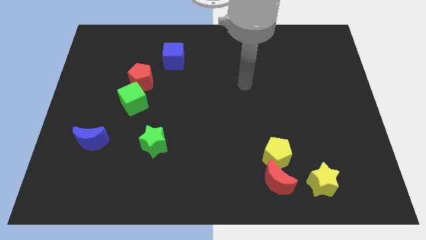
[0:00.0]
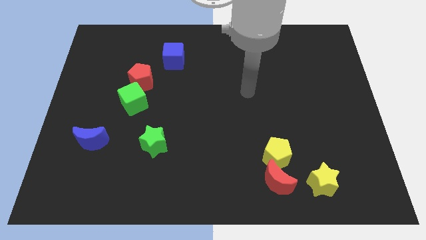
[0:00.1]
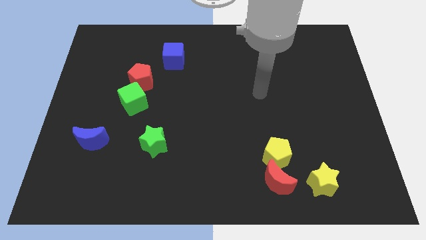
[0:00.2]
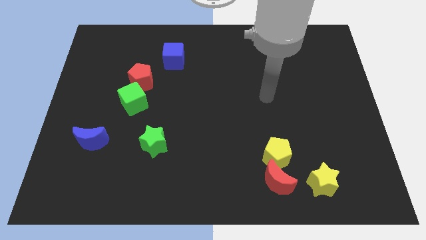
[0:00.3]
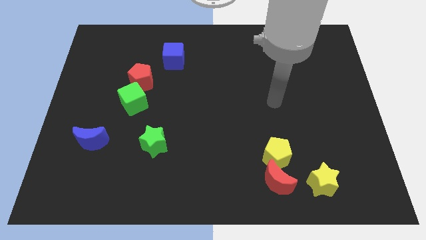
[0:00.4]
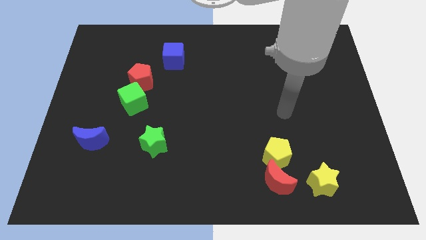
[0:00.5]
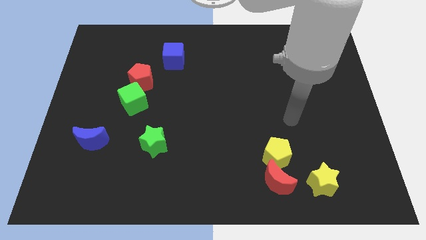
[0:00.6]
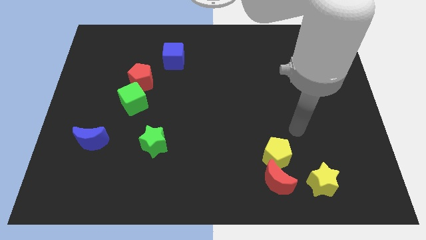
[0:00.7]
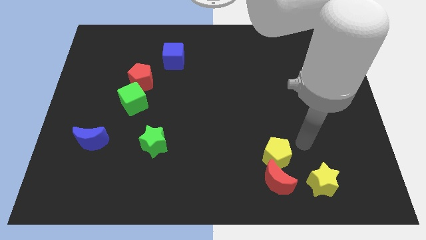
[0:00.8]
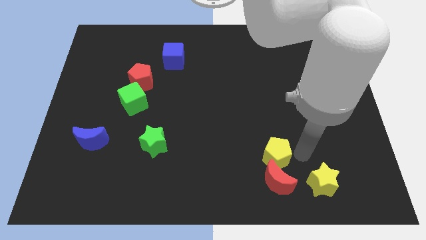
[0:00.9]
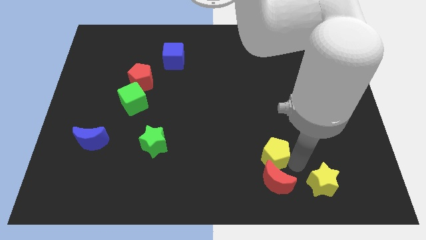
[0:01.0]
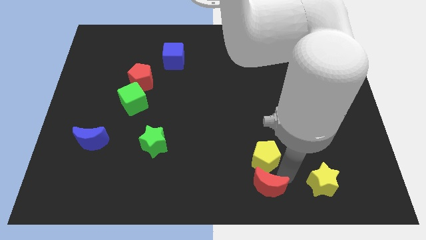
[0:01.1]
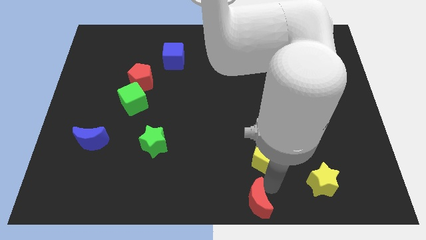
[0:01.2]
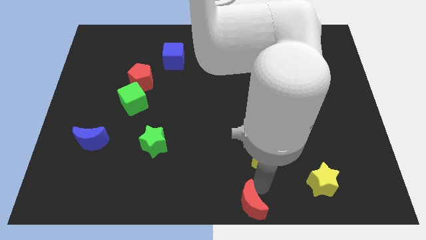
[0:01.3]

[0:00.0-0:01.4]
pull the yellow pentagon apart from the red moon

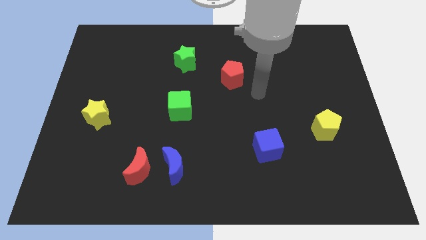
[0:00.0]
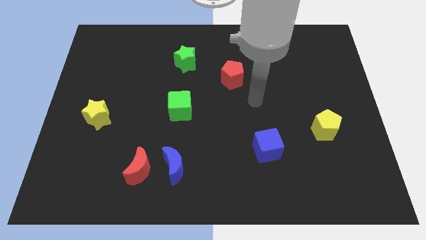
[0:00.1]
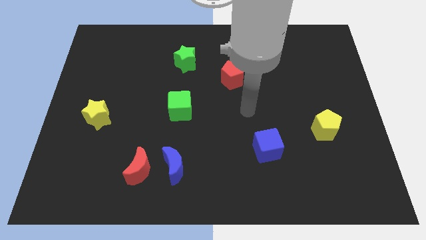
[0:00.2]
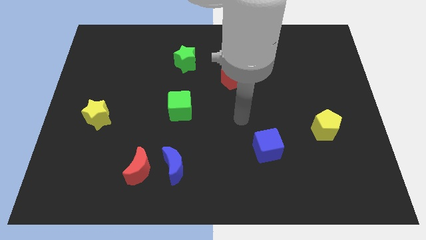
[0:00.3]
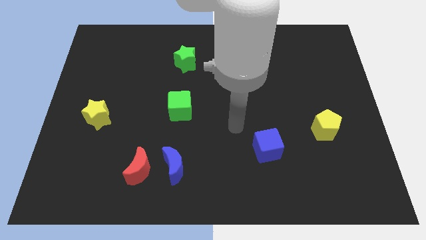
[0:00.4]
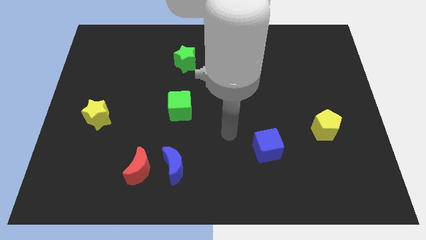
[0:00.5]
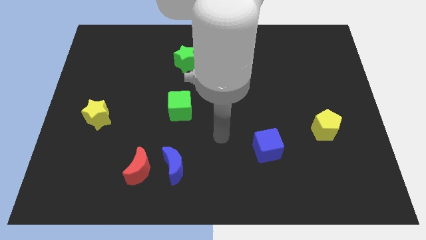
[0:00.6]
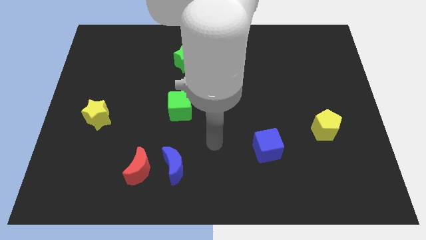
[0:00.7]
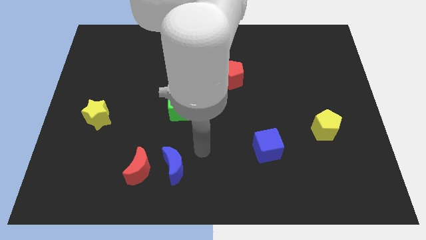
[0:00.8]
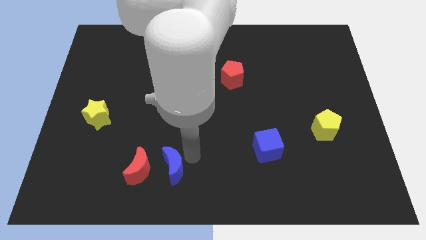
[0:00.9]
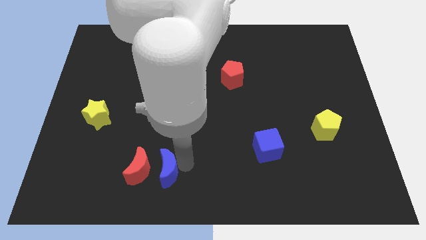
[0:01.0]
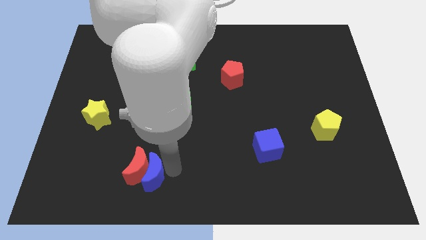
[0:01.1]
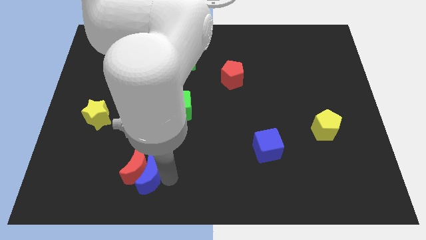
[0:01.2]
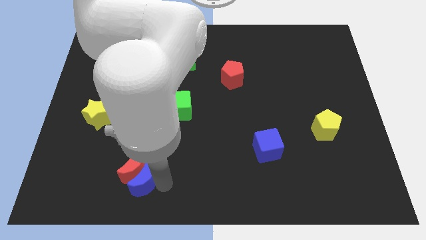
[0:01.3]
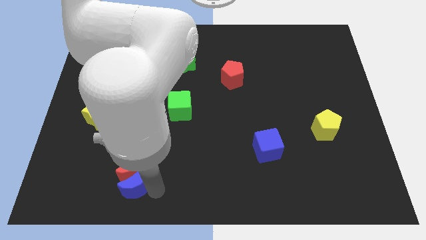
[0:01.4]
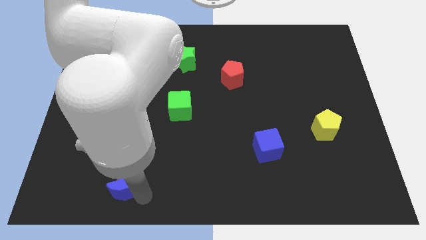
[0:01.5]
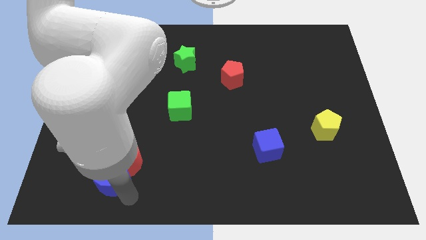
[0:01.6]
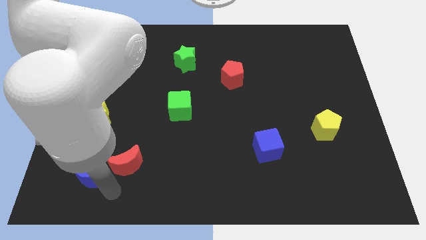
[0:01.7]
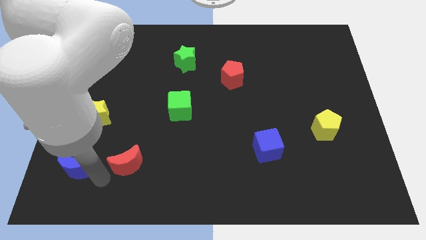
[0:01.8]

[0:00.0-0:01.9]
pull the red moon apart from the blue moon

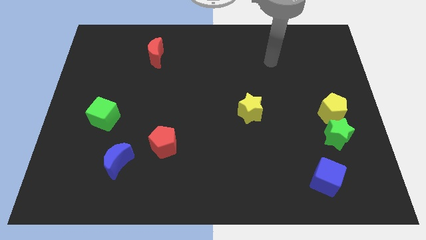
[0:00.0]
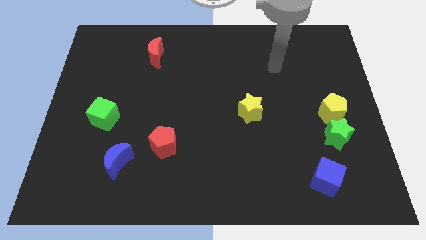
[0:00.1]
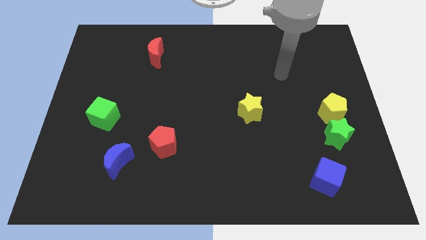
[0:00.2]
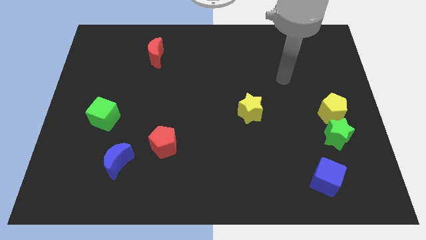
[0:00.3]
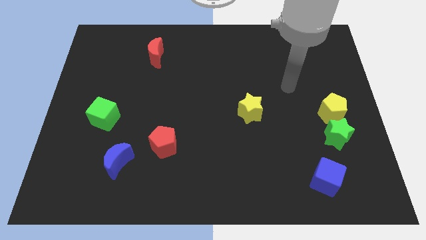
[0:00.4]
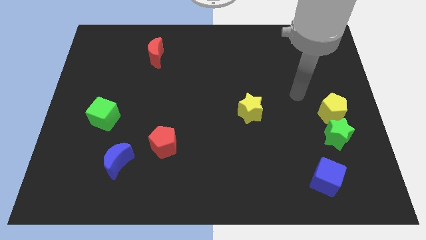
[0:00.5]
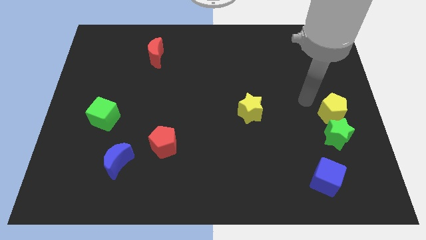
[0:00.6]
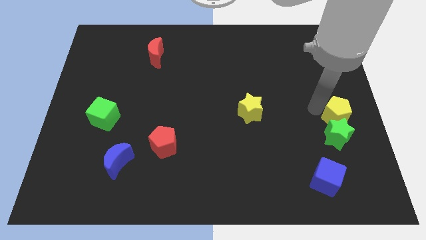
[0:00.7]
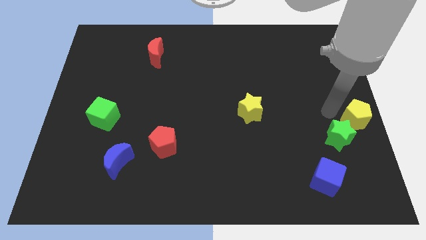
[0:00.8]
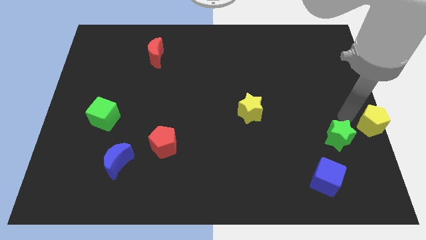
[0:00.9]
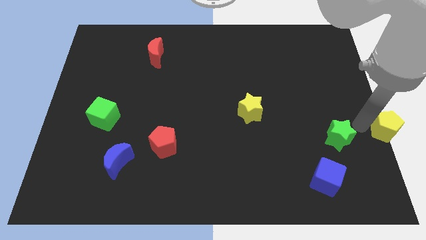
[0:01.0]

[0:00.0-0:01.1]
pull the green star apart from the yellow pentagon

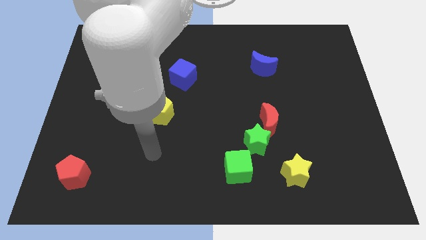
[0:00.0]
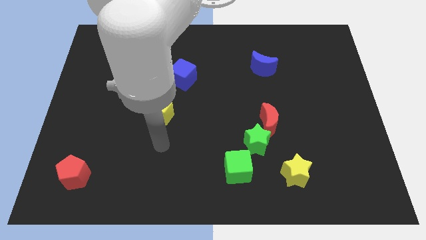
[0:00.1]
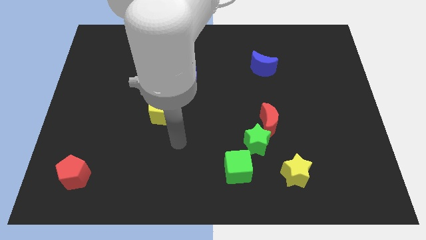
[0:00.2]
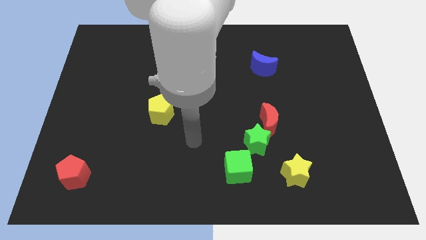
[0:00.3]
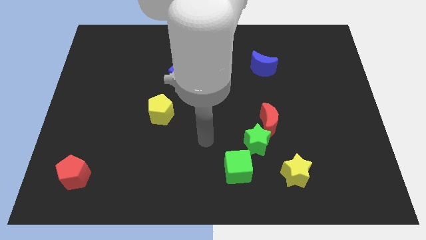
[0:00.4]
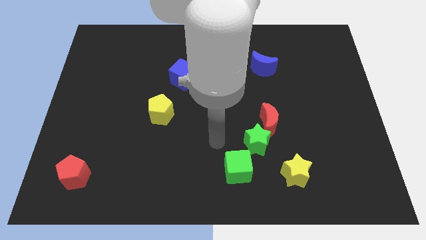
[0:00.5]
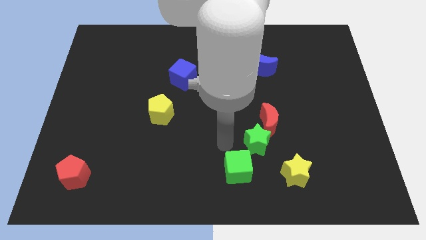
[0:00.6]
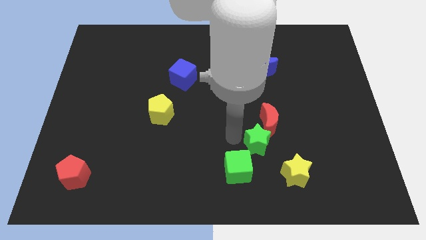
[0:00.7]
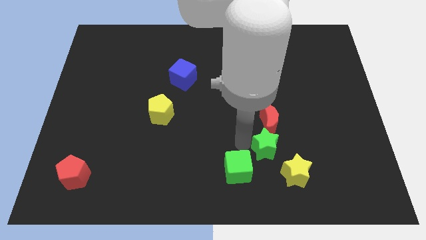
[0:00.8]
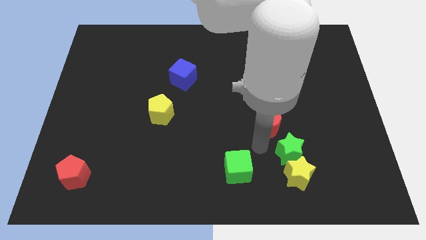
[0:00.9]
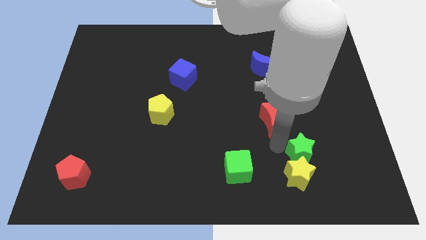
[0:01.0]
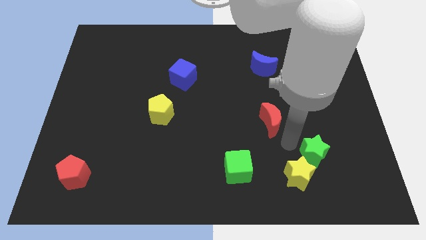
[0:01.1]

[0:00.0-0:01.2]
pull the red moon apart from the green star

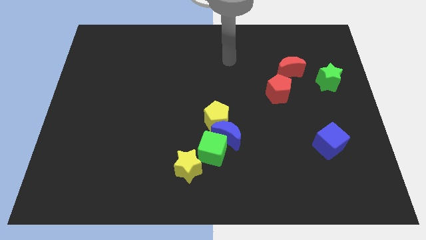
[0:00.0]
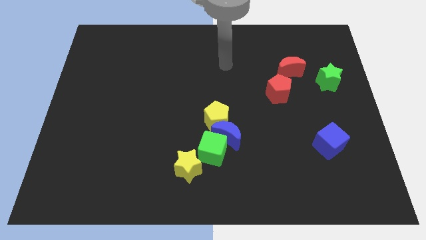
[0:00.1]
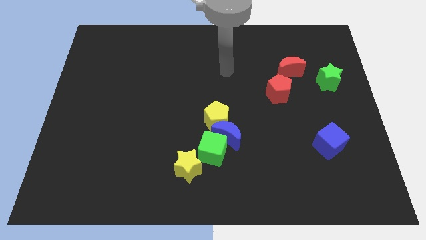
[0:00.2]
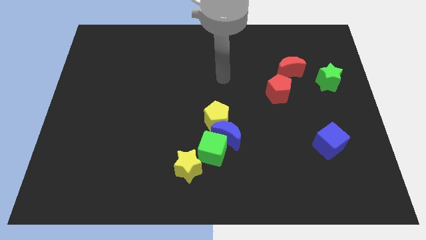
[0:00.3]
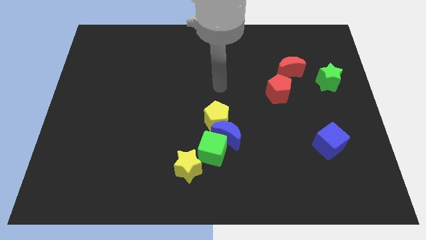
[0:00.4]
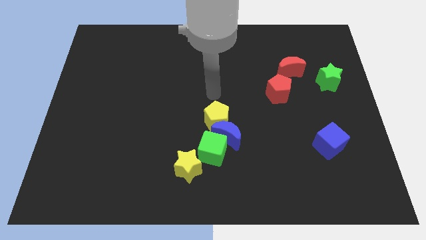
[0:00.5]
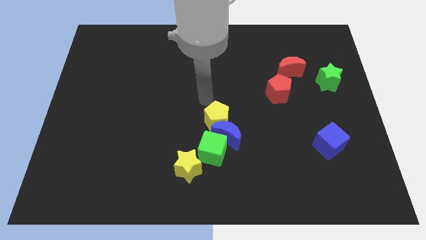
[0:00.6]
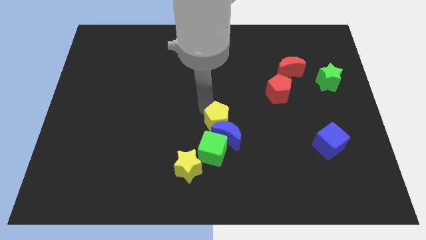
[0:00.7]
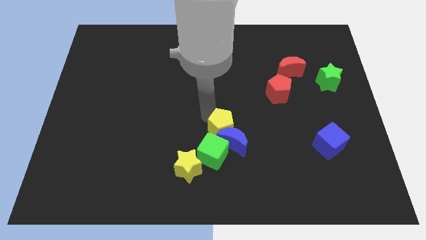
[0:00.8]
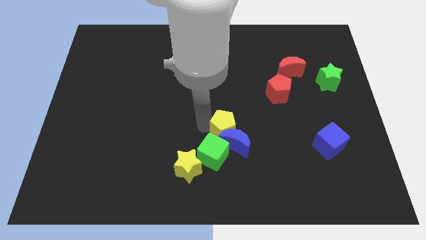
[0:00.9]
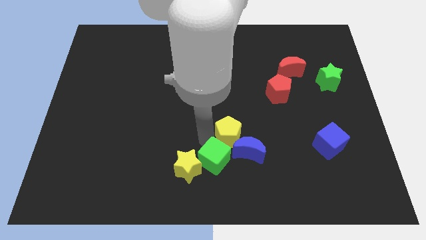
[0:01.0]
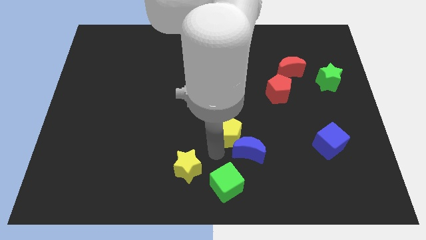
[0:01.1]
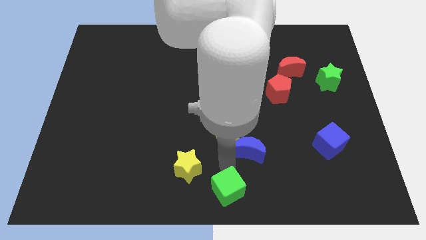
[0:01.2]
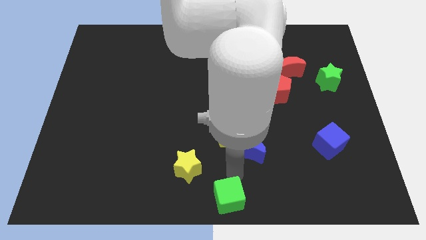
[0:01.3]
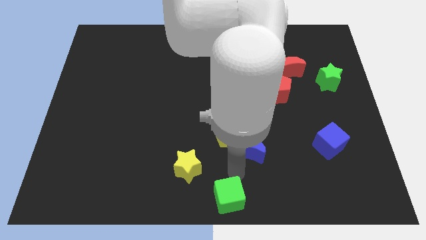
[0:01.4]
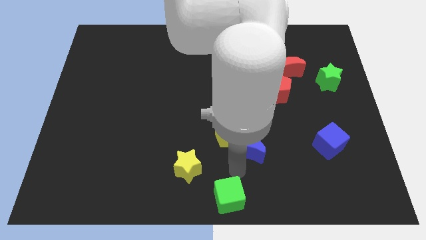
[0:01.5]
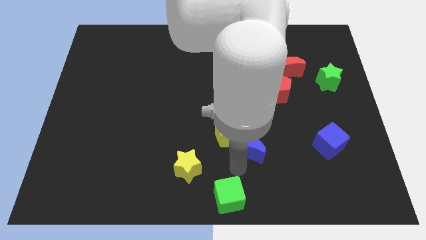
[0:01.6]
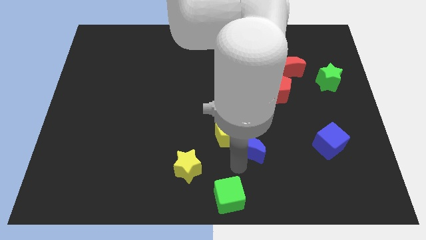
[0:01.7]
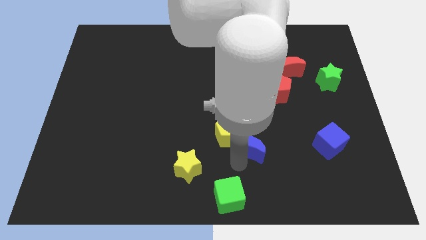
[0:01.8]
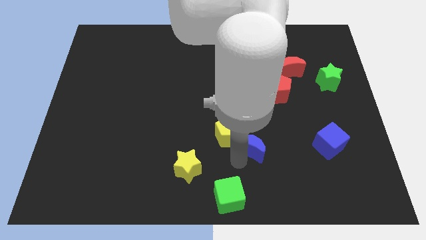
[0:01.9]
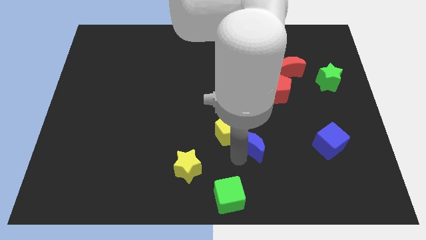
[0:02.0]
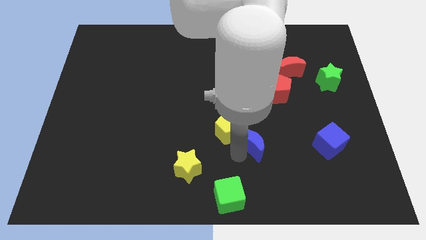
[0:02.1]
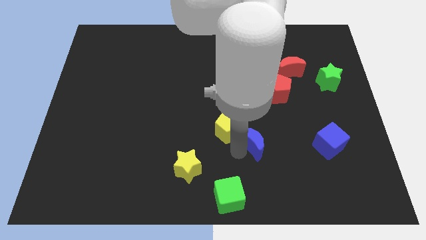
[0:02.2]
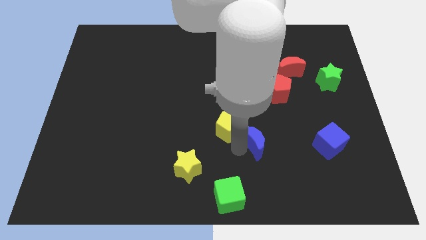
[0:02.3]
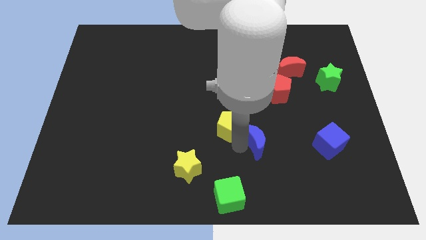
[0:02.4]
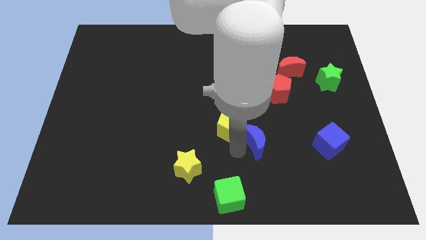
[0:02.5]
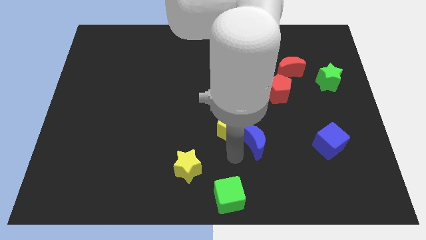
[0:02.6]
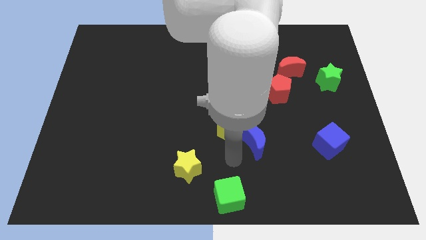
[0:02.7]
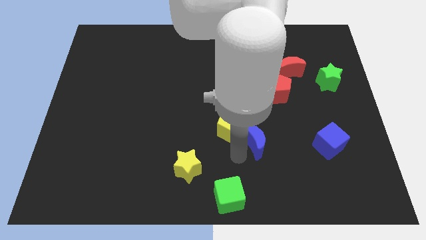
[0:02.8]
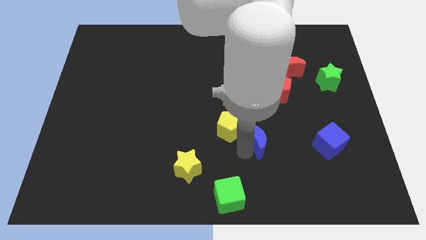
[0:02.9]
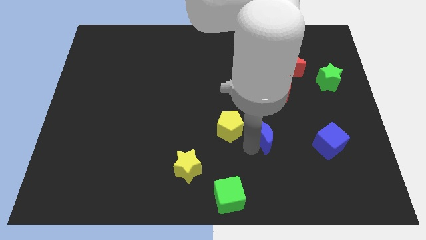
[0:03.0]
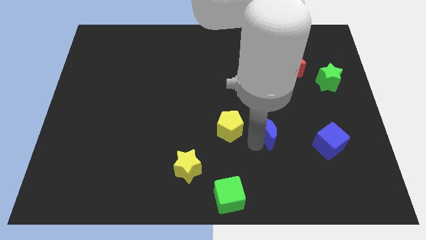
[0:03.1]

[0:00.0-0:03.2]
separate the blue moon from the green cube and yellow pentagon

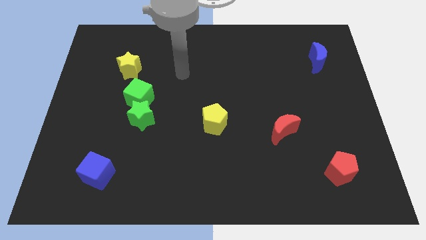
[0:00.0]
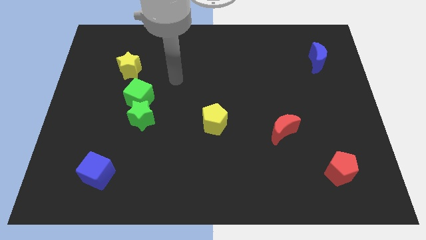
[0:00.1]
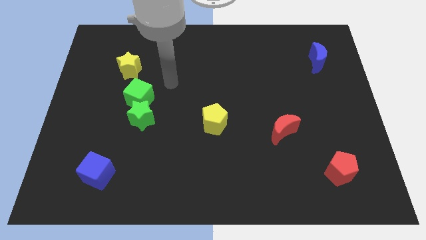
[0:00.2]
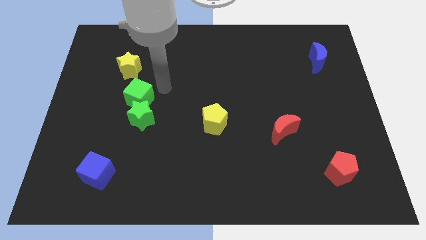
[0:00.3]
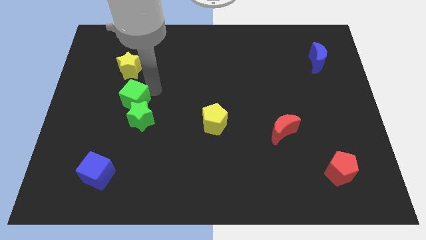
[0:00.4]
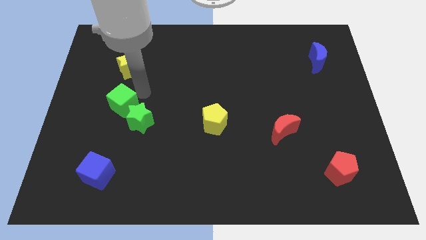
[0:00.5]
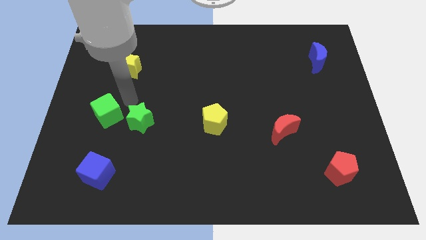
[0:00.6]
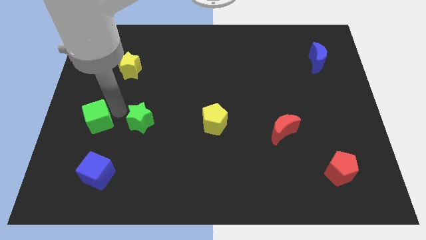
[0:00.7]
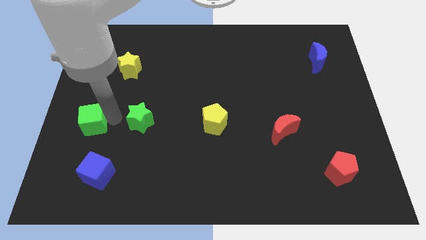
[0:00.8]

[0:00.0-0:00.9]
pull the green star apart from the green cube
